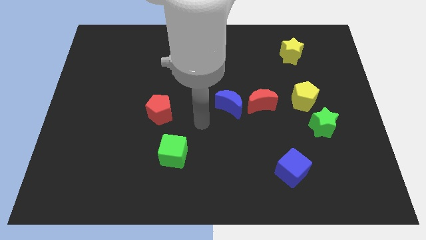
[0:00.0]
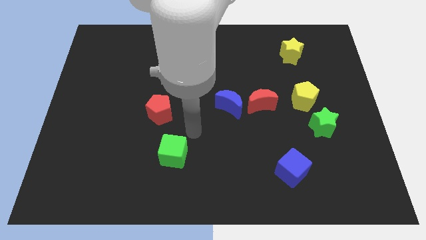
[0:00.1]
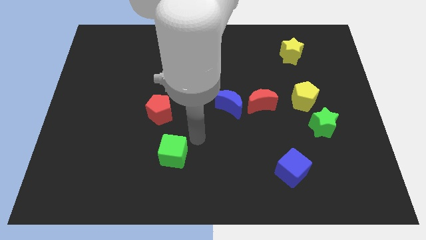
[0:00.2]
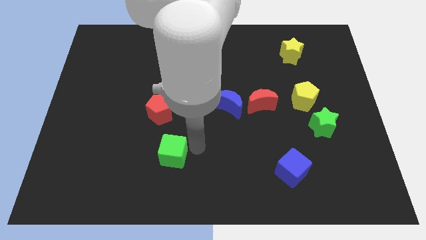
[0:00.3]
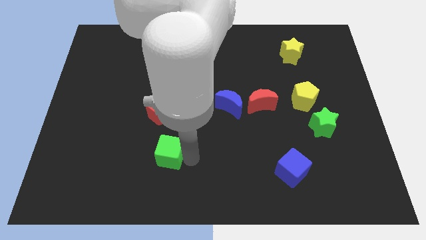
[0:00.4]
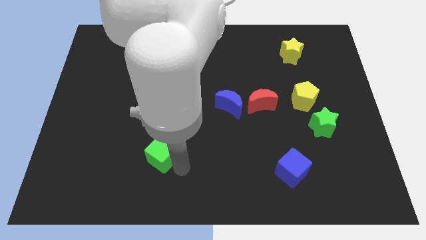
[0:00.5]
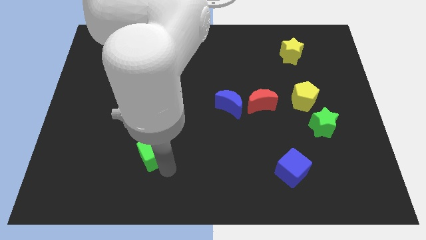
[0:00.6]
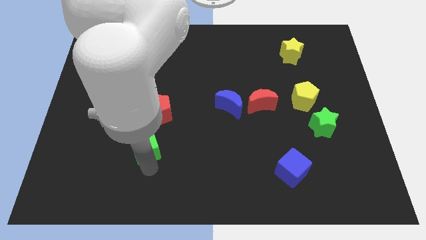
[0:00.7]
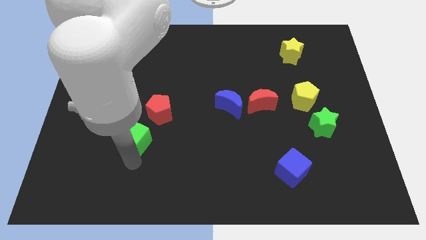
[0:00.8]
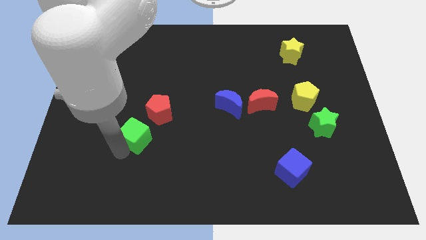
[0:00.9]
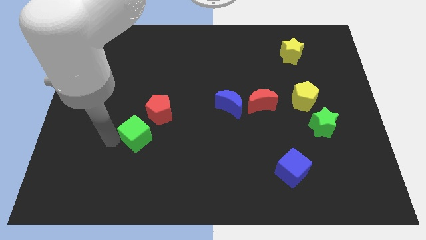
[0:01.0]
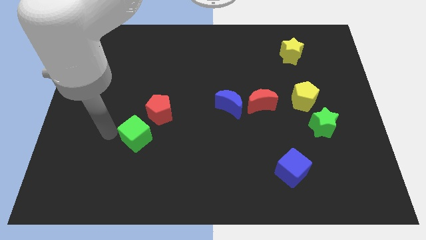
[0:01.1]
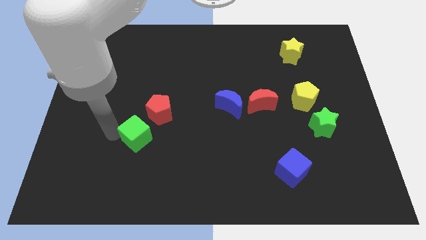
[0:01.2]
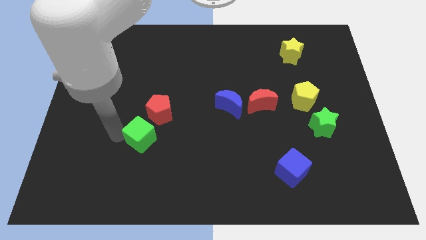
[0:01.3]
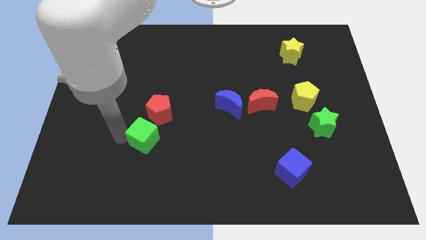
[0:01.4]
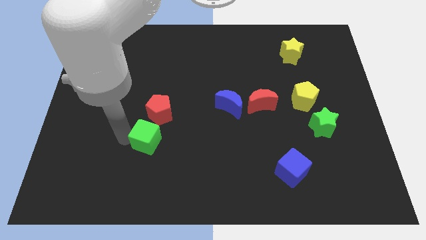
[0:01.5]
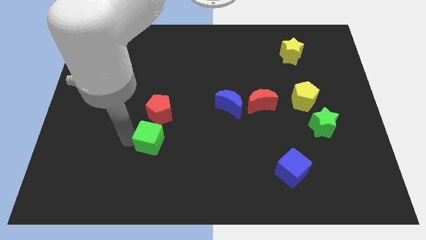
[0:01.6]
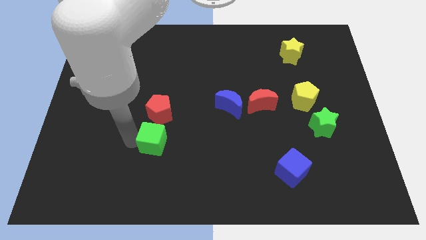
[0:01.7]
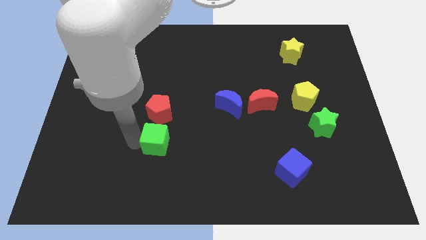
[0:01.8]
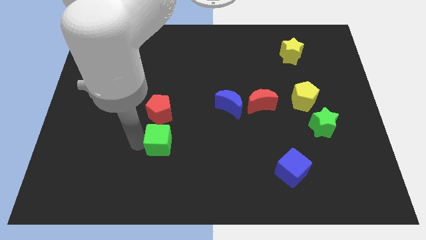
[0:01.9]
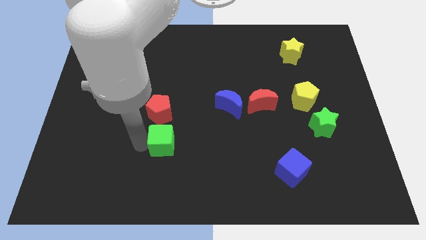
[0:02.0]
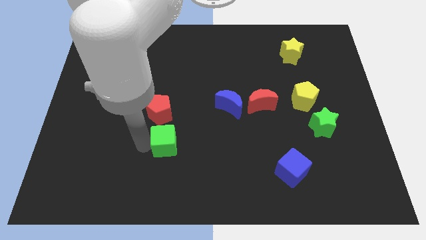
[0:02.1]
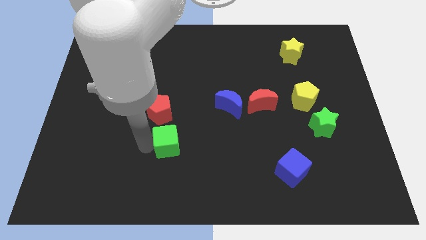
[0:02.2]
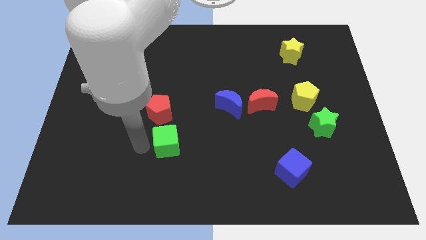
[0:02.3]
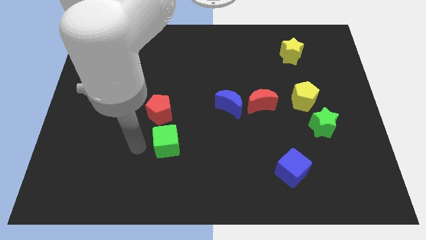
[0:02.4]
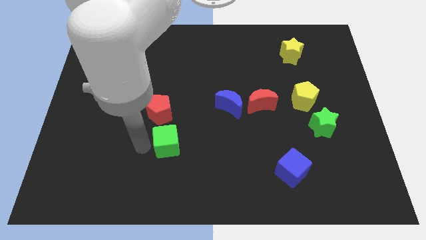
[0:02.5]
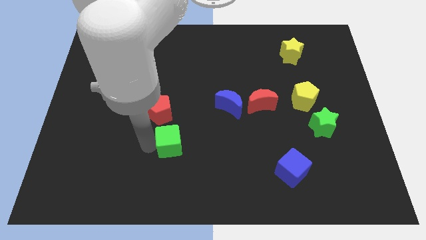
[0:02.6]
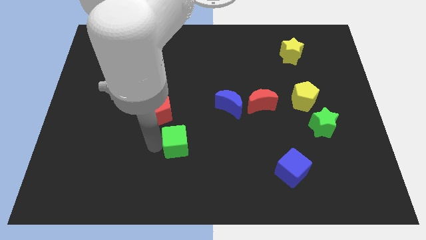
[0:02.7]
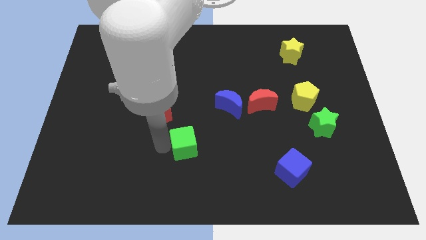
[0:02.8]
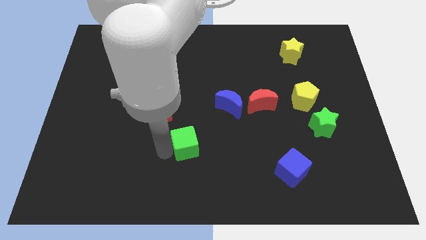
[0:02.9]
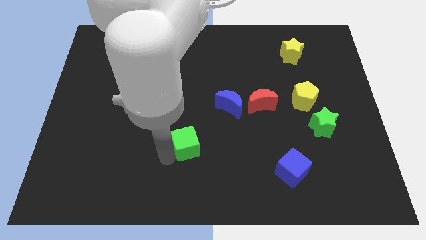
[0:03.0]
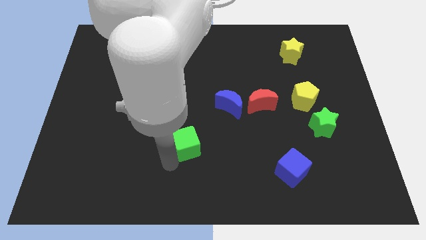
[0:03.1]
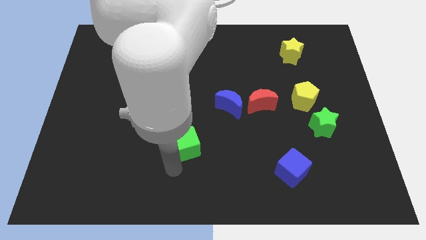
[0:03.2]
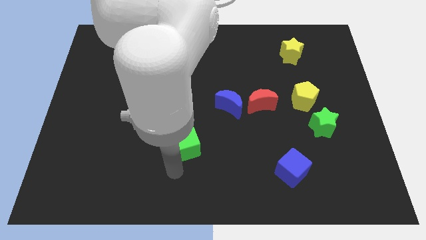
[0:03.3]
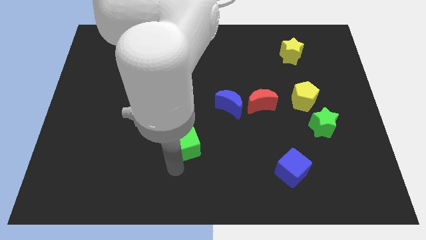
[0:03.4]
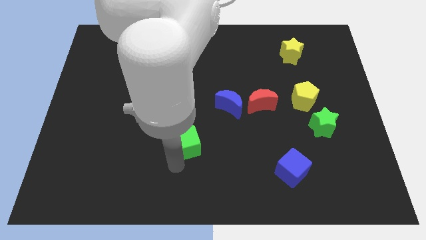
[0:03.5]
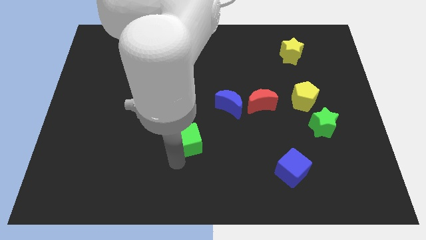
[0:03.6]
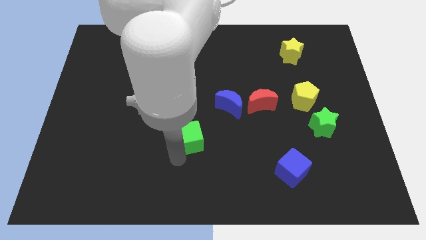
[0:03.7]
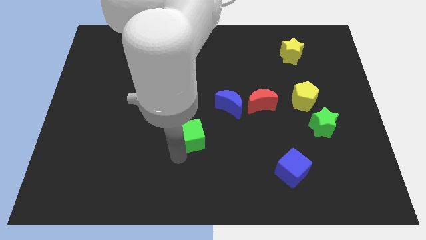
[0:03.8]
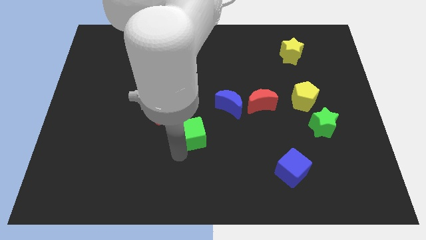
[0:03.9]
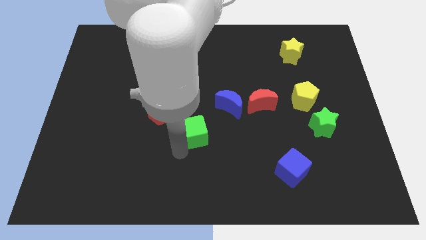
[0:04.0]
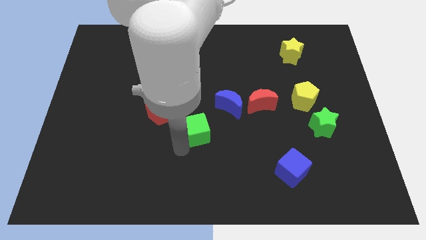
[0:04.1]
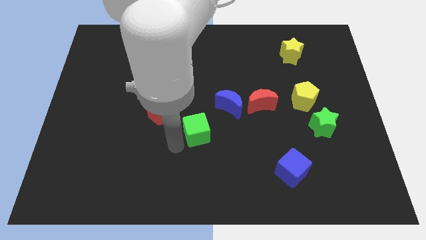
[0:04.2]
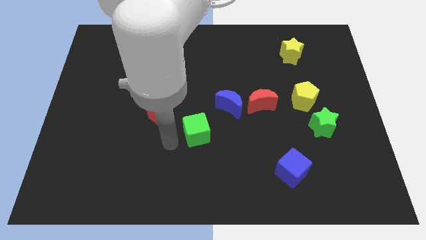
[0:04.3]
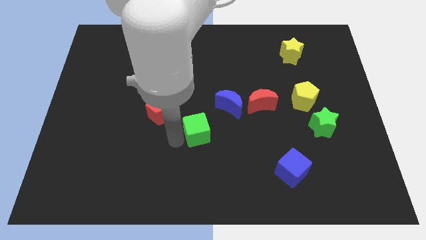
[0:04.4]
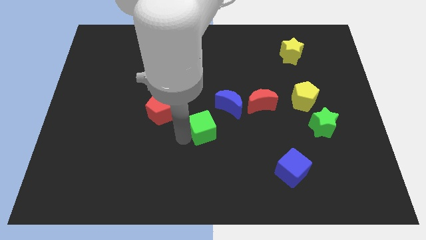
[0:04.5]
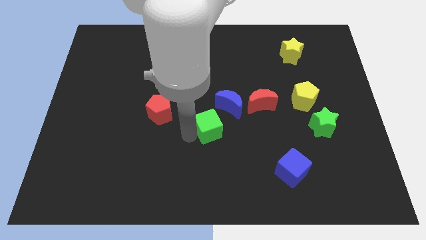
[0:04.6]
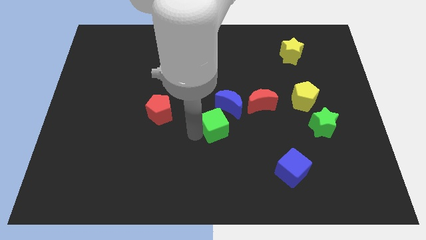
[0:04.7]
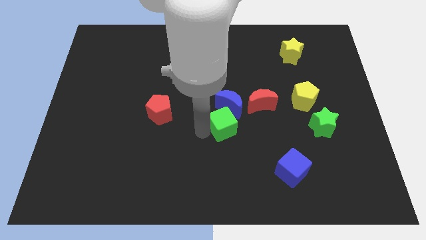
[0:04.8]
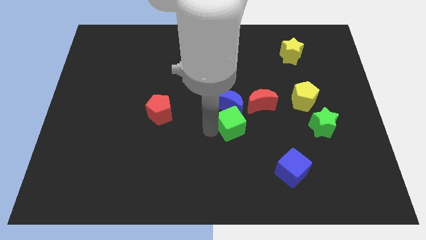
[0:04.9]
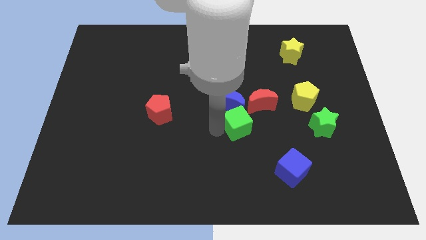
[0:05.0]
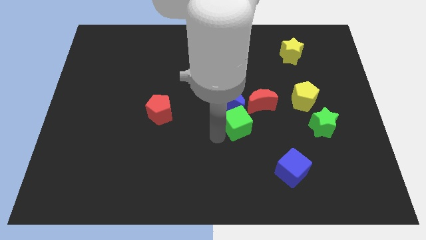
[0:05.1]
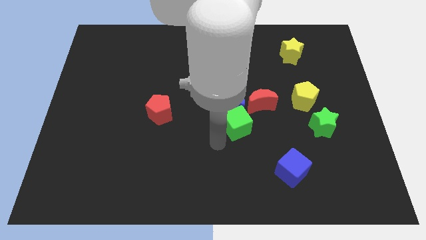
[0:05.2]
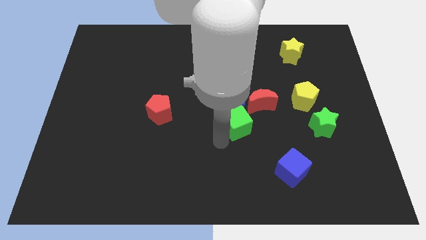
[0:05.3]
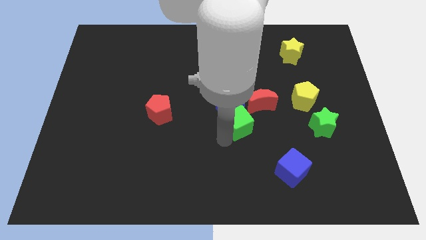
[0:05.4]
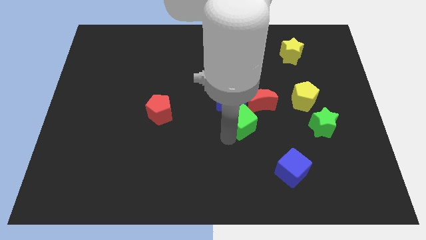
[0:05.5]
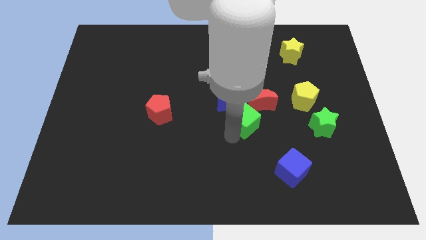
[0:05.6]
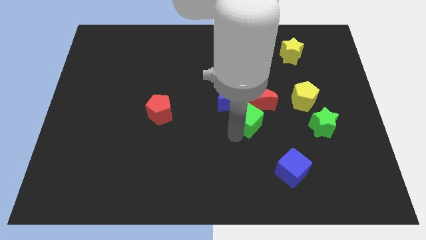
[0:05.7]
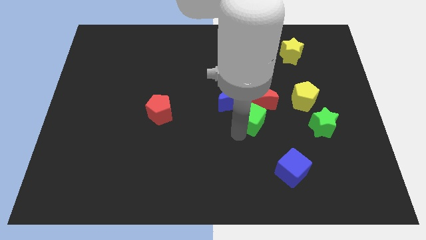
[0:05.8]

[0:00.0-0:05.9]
move the green cube towards the red moon

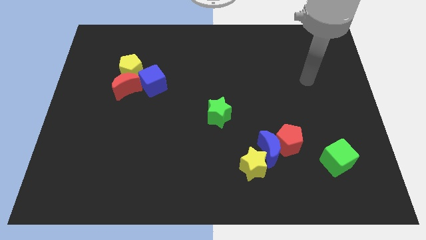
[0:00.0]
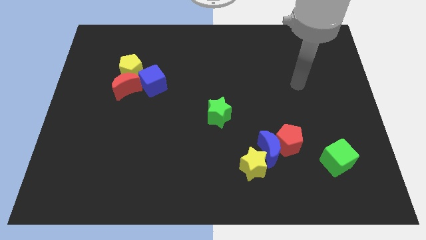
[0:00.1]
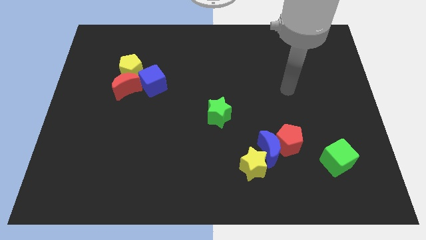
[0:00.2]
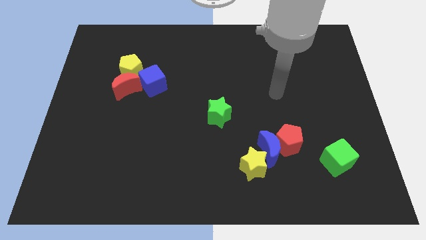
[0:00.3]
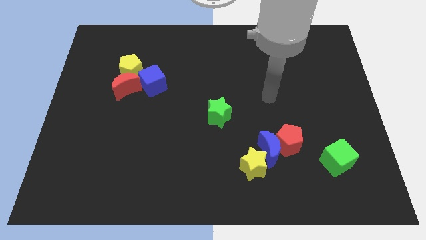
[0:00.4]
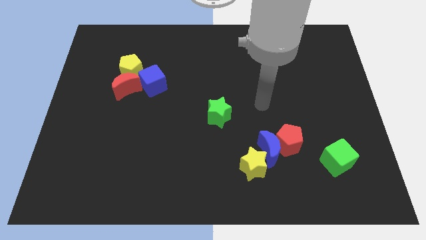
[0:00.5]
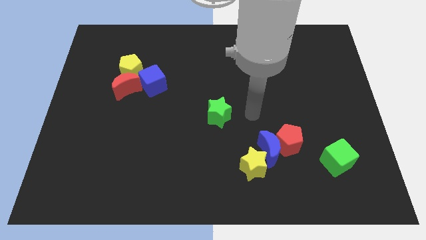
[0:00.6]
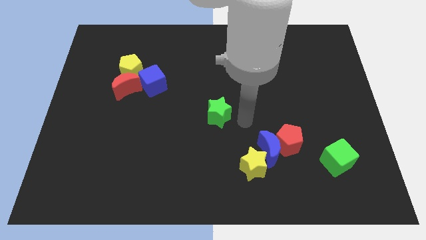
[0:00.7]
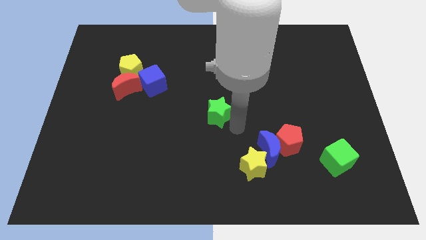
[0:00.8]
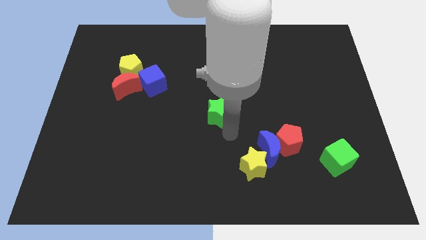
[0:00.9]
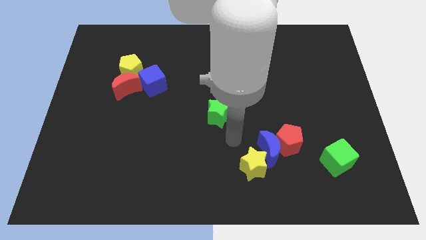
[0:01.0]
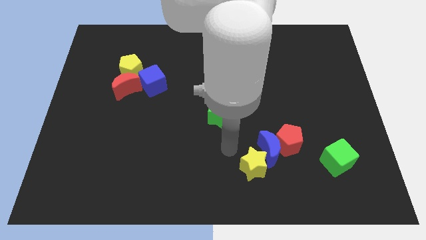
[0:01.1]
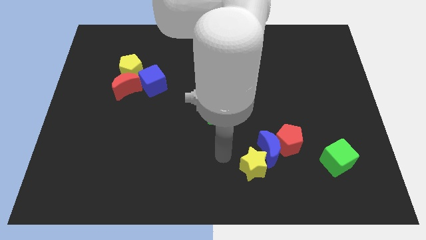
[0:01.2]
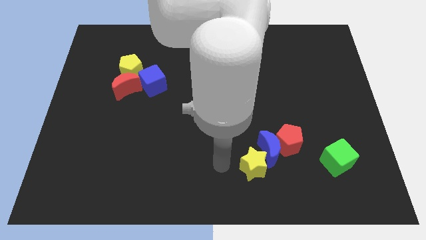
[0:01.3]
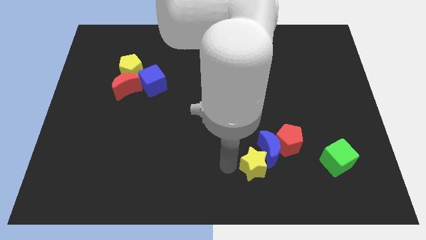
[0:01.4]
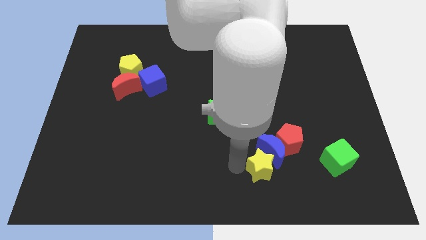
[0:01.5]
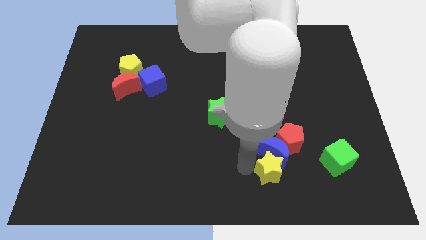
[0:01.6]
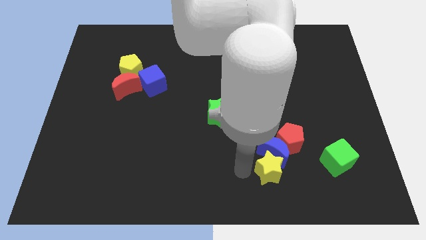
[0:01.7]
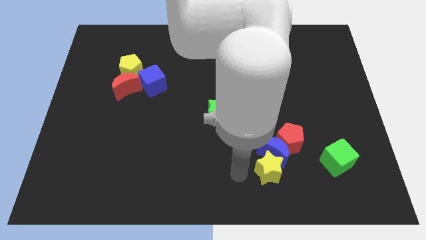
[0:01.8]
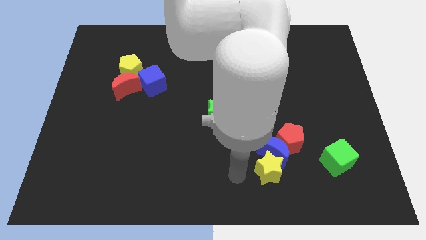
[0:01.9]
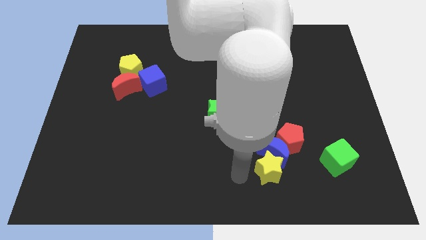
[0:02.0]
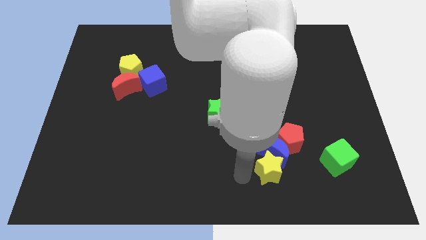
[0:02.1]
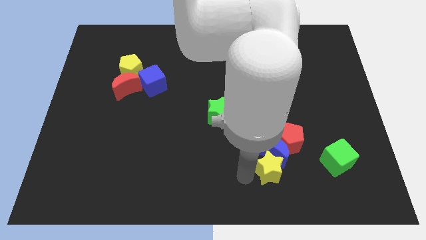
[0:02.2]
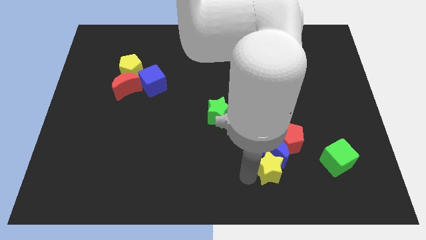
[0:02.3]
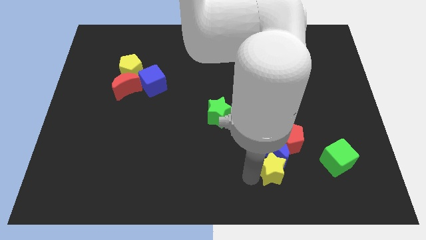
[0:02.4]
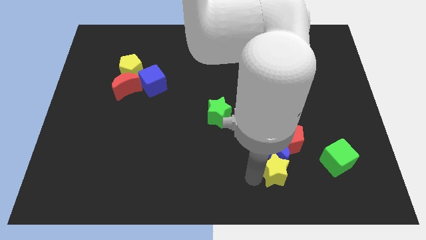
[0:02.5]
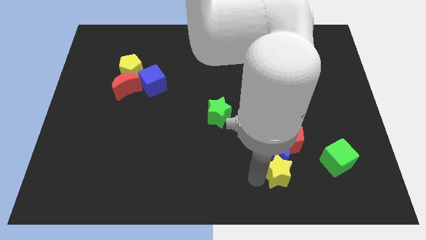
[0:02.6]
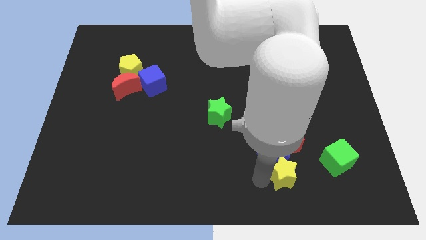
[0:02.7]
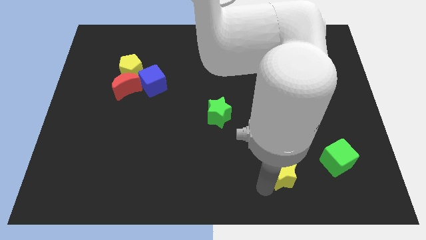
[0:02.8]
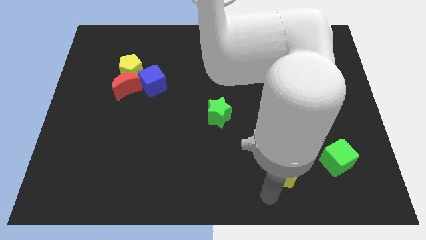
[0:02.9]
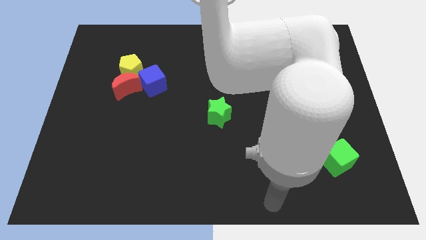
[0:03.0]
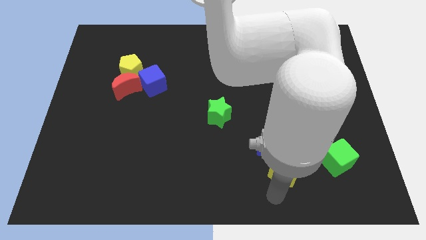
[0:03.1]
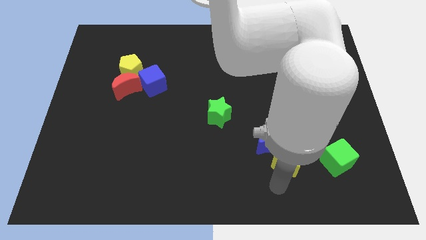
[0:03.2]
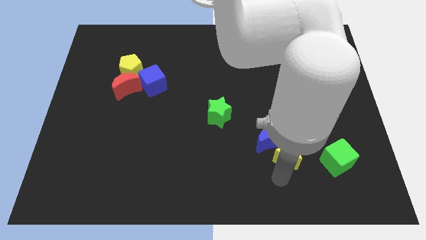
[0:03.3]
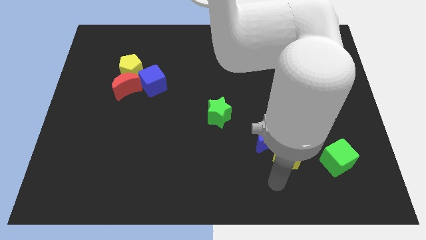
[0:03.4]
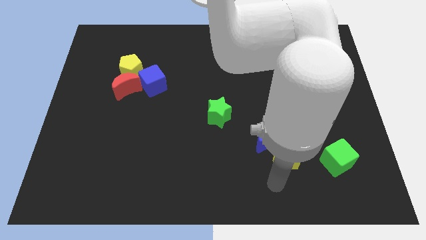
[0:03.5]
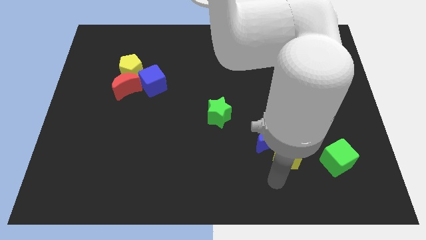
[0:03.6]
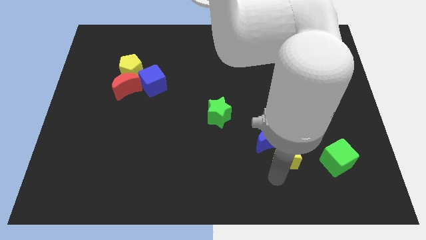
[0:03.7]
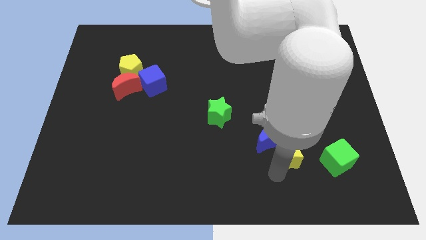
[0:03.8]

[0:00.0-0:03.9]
push the yellow star to the red pentagon
